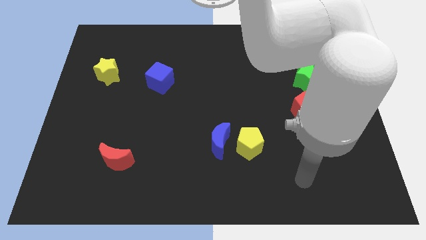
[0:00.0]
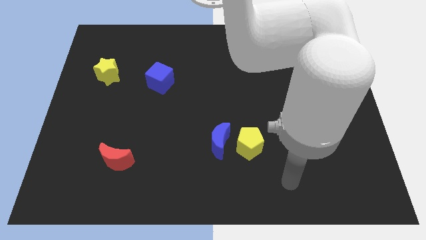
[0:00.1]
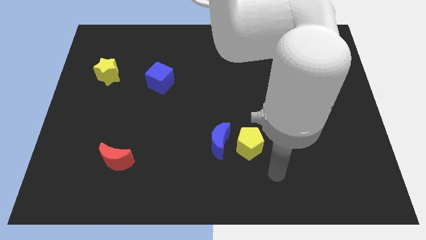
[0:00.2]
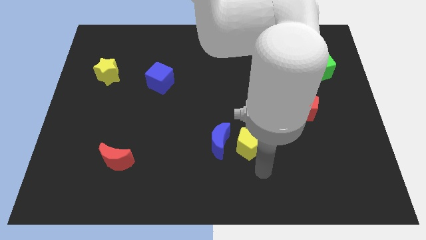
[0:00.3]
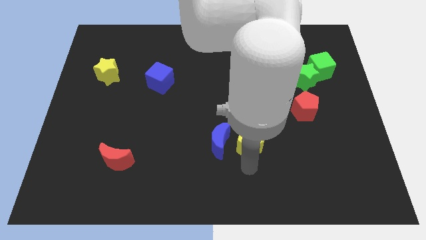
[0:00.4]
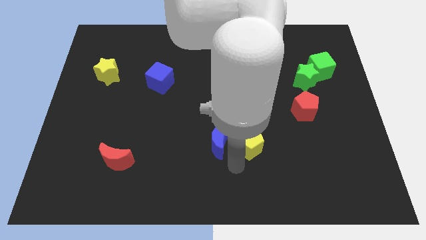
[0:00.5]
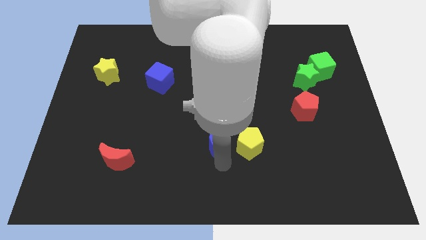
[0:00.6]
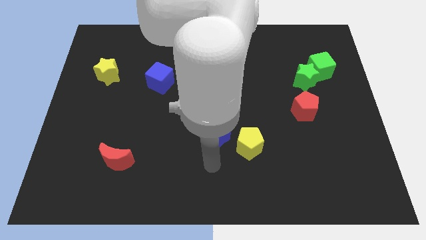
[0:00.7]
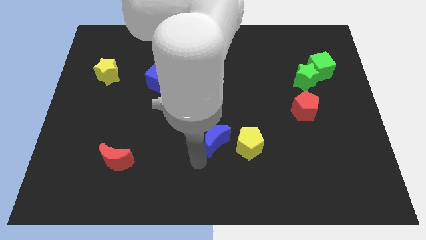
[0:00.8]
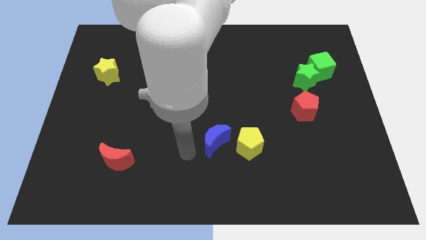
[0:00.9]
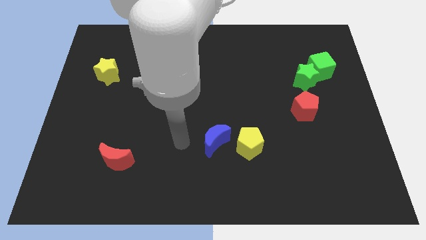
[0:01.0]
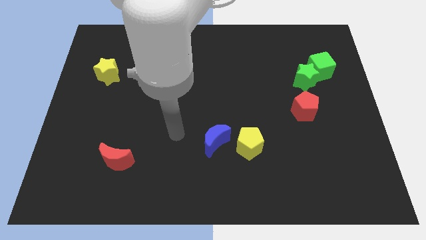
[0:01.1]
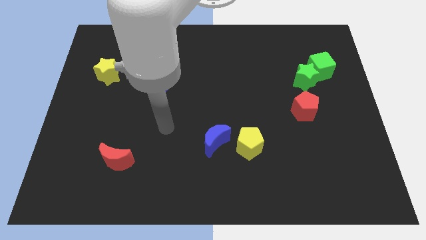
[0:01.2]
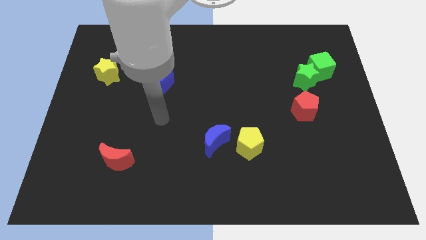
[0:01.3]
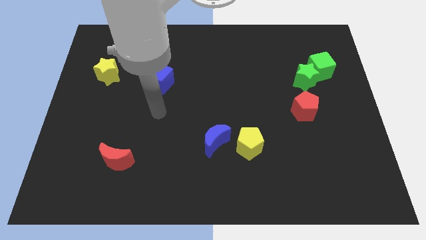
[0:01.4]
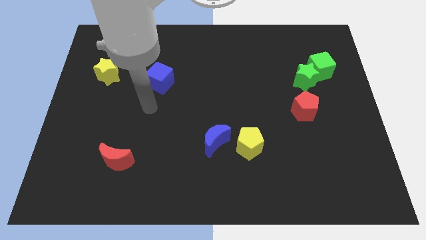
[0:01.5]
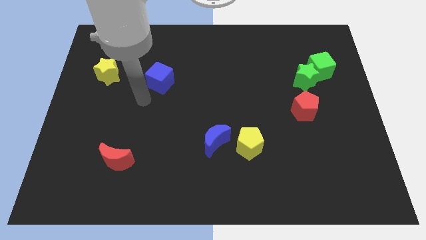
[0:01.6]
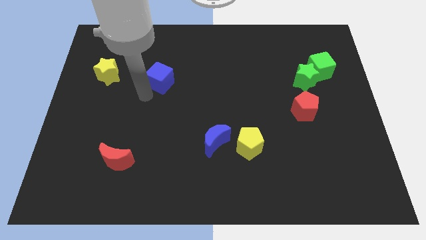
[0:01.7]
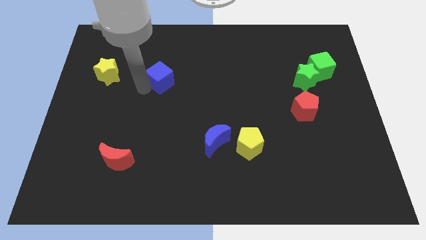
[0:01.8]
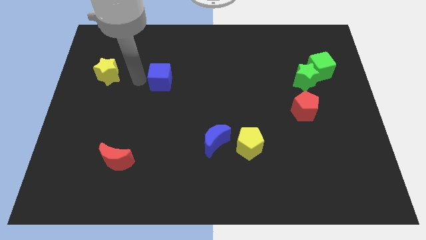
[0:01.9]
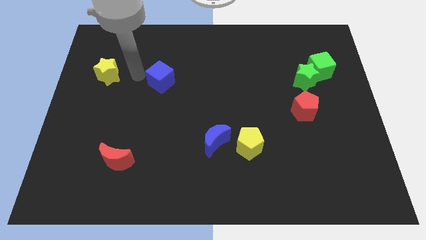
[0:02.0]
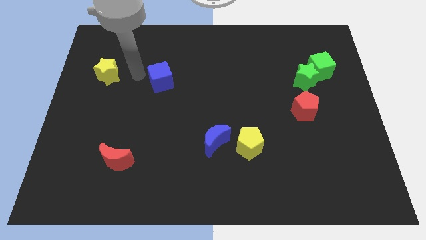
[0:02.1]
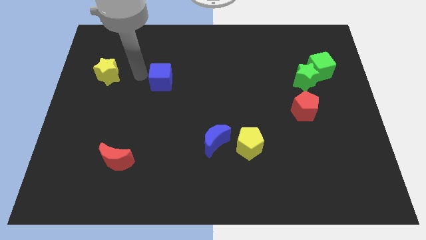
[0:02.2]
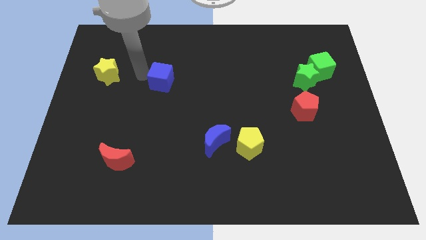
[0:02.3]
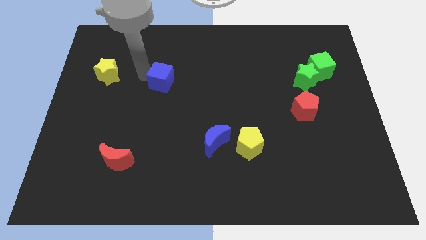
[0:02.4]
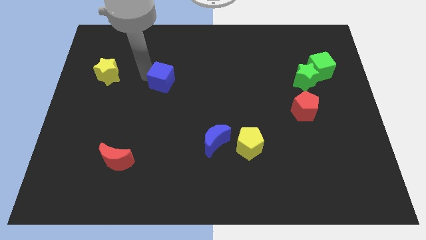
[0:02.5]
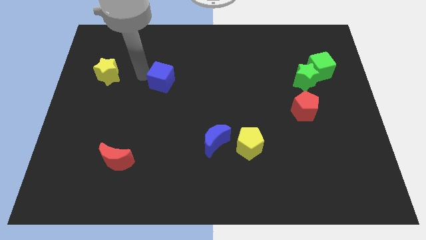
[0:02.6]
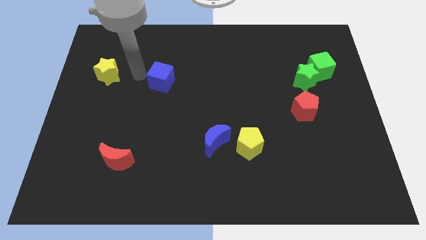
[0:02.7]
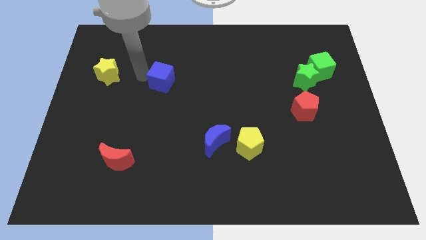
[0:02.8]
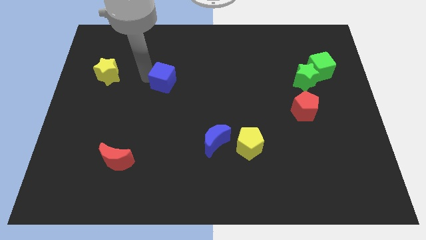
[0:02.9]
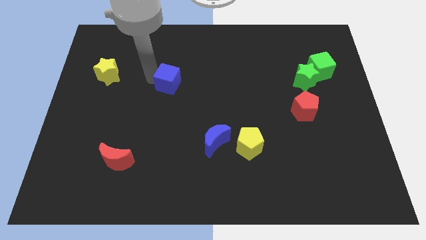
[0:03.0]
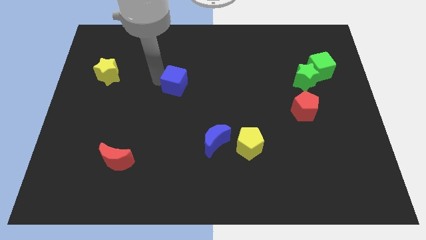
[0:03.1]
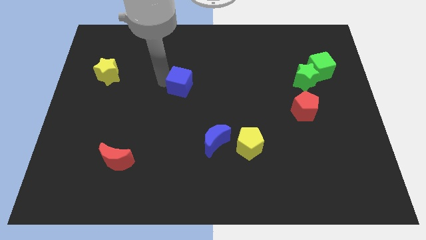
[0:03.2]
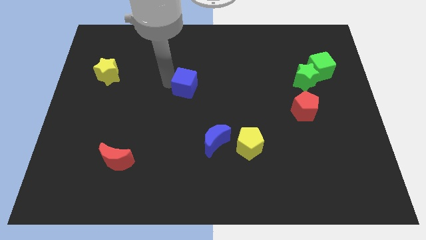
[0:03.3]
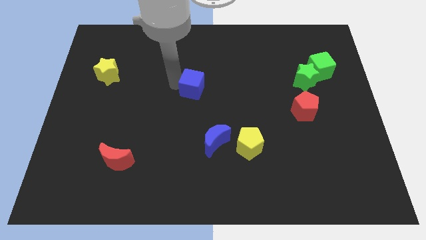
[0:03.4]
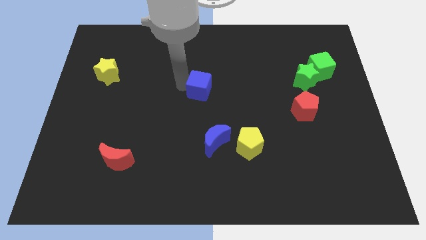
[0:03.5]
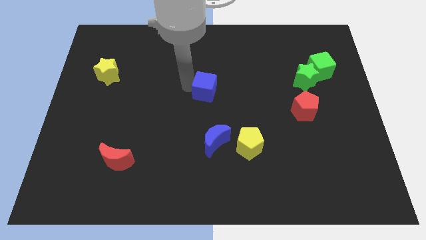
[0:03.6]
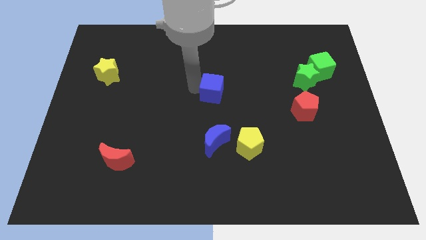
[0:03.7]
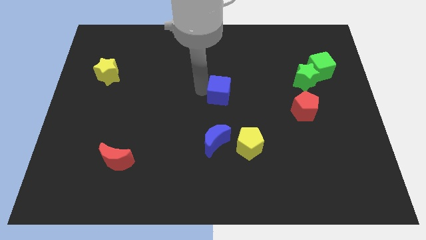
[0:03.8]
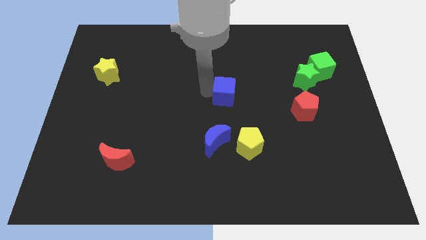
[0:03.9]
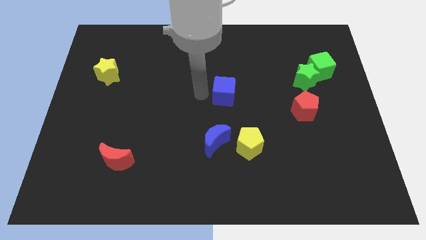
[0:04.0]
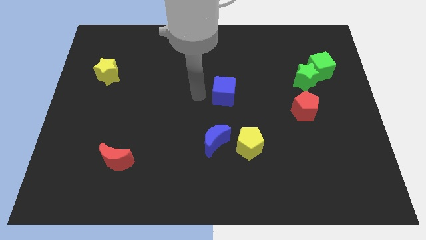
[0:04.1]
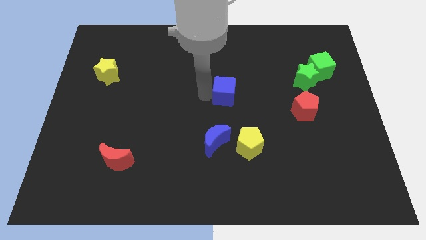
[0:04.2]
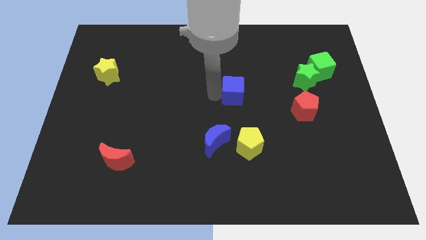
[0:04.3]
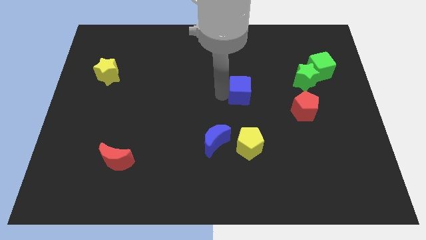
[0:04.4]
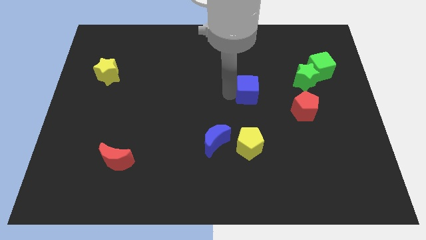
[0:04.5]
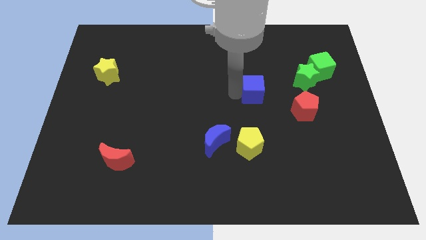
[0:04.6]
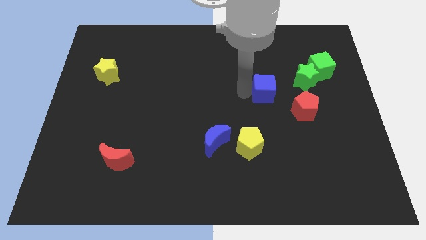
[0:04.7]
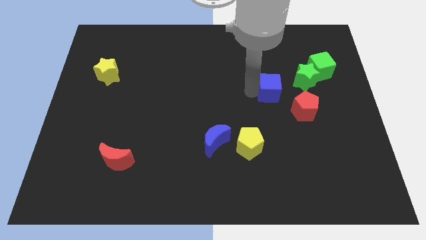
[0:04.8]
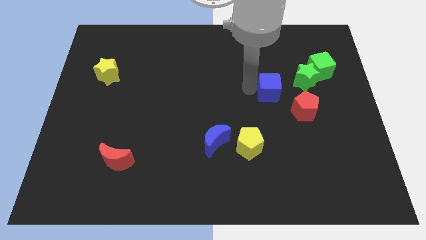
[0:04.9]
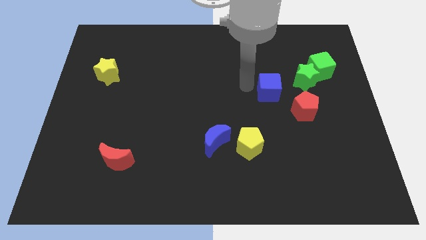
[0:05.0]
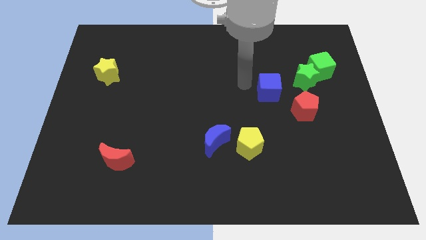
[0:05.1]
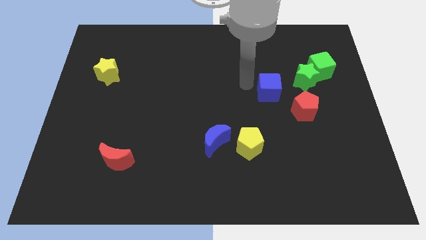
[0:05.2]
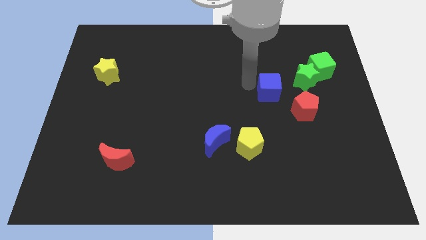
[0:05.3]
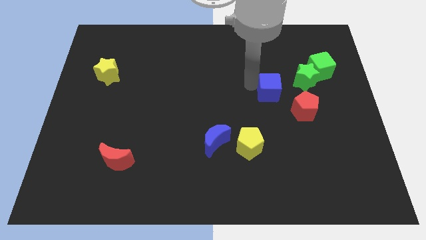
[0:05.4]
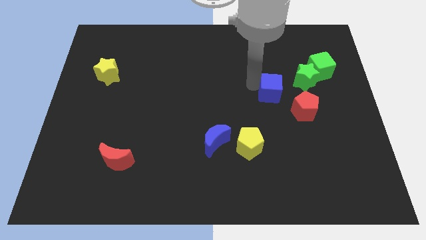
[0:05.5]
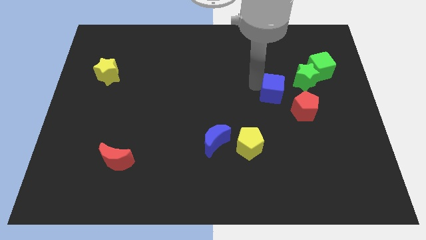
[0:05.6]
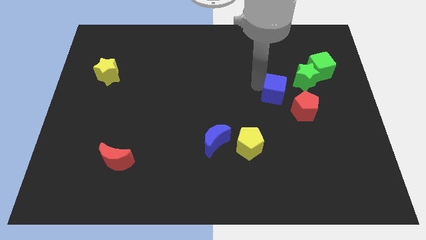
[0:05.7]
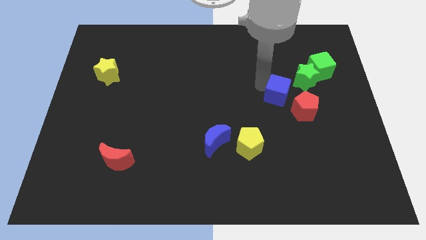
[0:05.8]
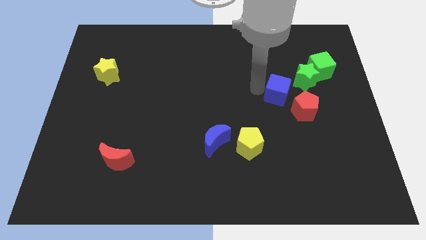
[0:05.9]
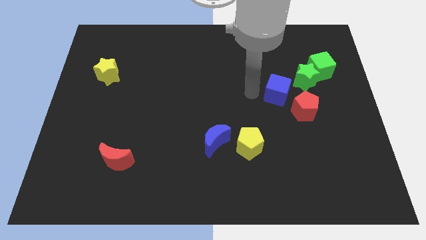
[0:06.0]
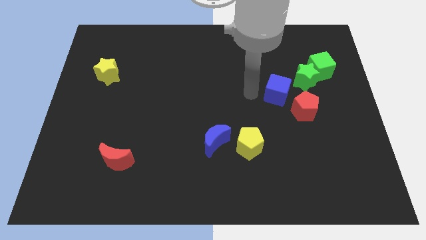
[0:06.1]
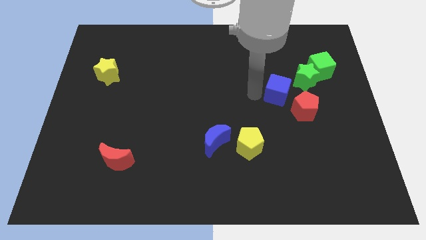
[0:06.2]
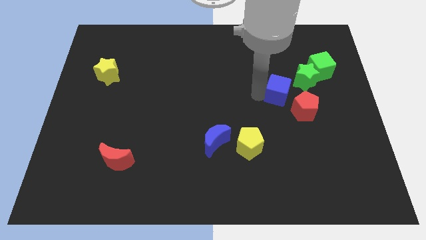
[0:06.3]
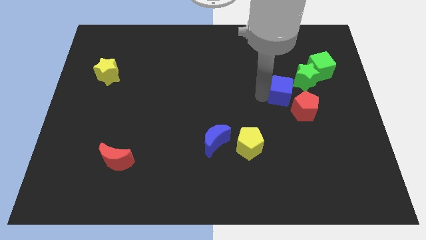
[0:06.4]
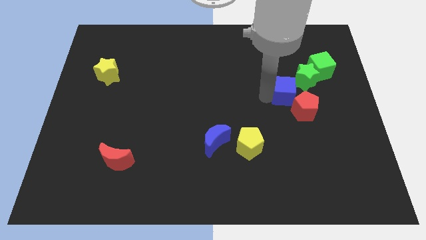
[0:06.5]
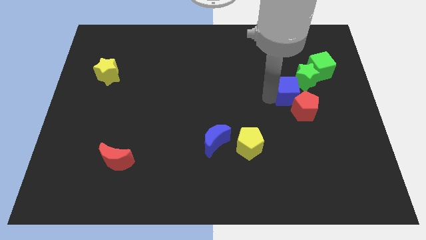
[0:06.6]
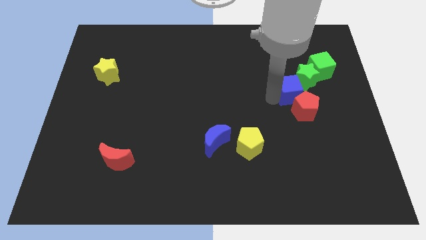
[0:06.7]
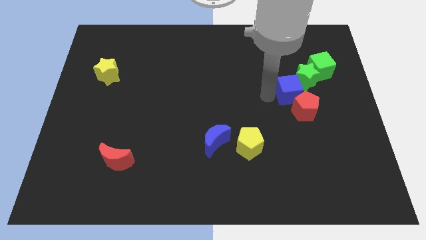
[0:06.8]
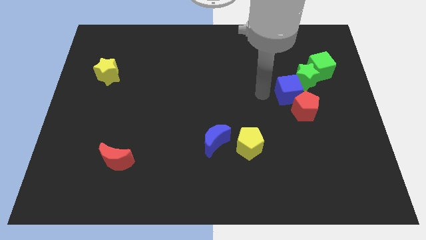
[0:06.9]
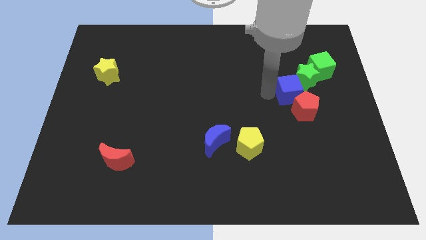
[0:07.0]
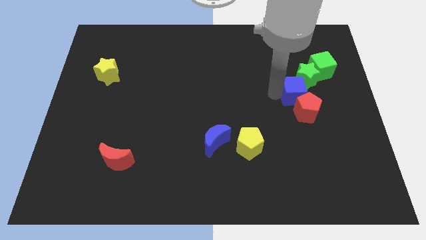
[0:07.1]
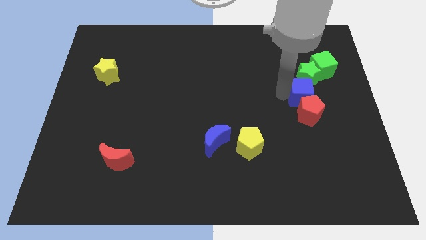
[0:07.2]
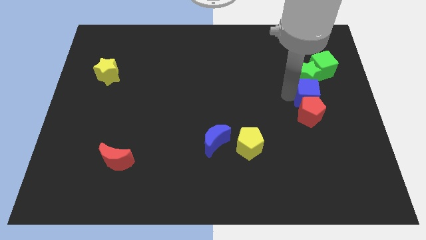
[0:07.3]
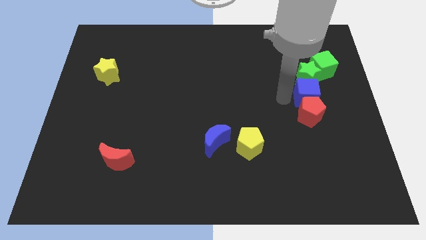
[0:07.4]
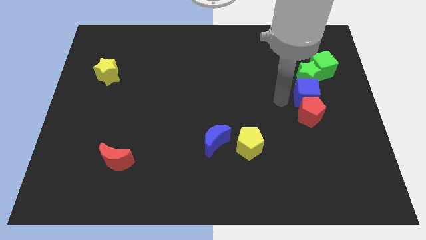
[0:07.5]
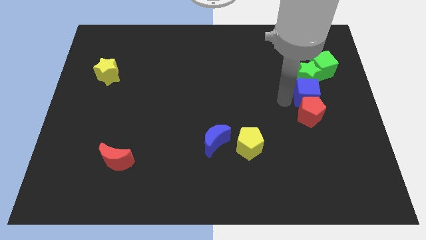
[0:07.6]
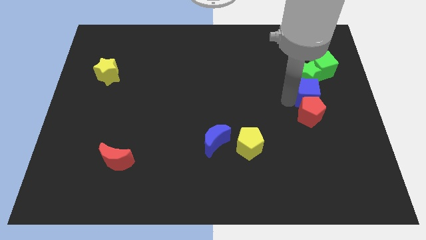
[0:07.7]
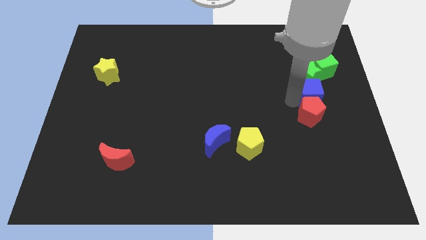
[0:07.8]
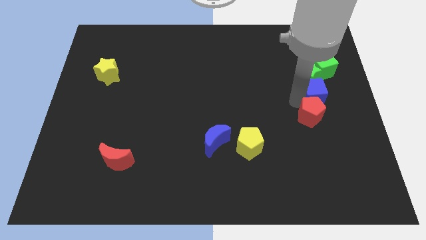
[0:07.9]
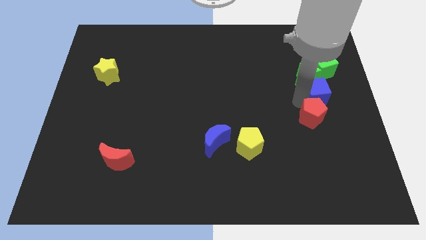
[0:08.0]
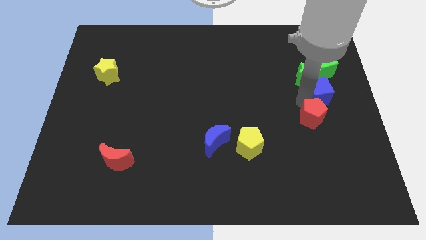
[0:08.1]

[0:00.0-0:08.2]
slide the blue cube to the right side of the board

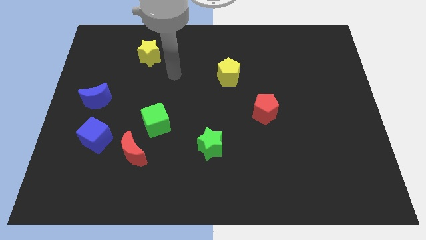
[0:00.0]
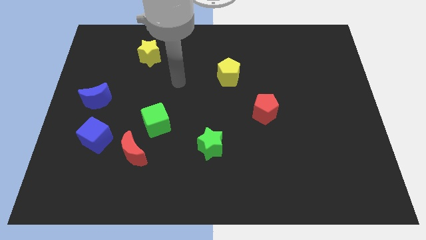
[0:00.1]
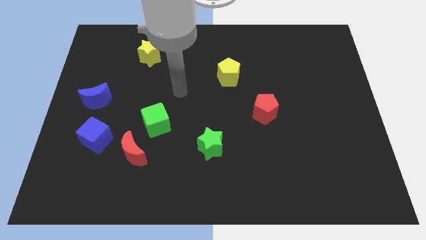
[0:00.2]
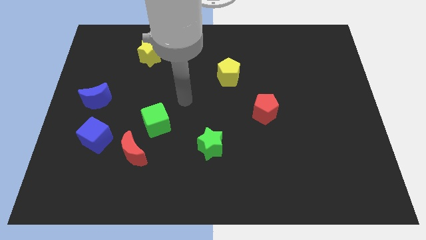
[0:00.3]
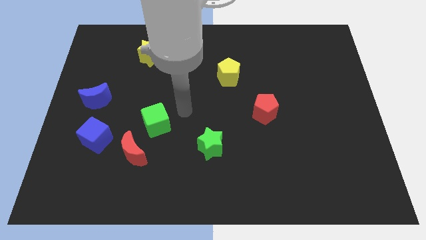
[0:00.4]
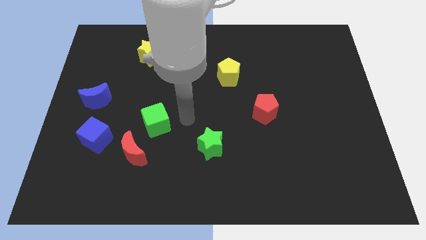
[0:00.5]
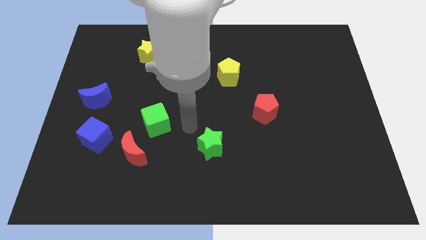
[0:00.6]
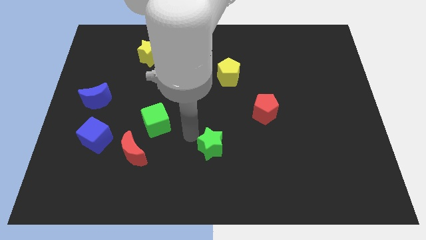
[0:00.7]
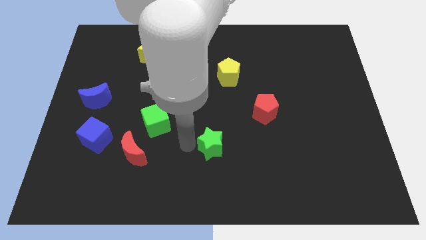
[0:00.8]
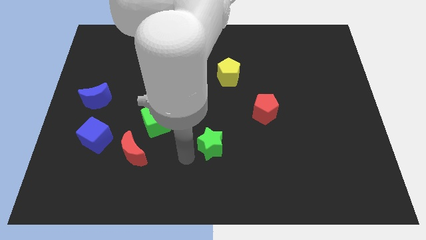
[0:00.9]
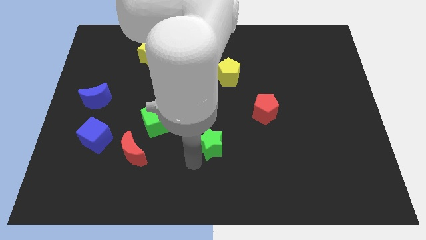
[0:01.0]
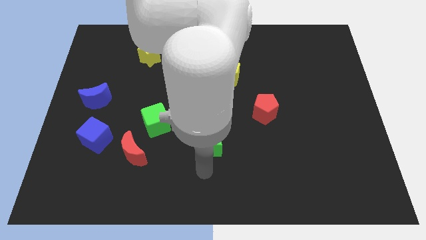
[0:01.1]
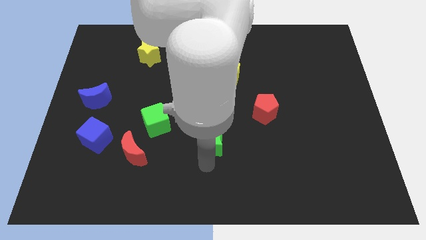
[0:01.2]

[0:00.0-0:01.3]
slide the green star to the center
